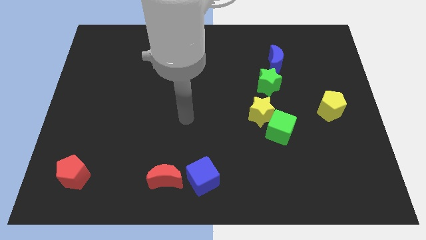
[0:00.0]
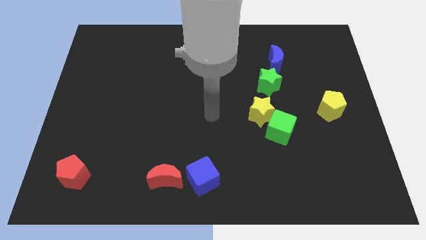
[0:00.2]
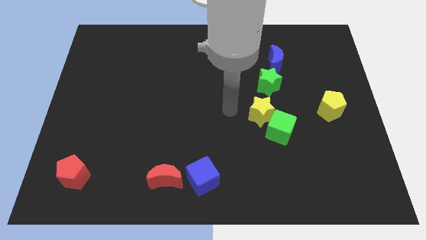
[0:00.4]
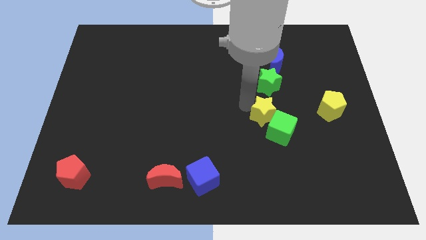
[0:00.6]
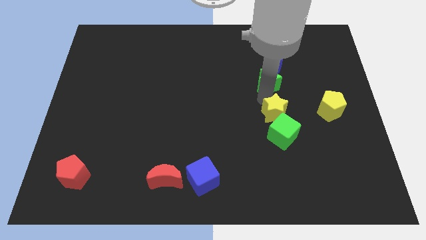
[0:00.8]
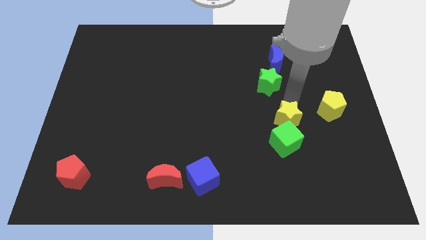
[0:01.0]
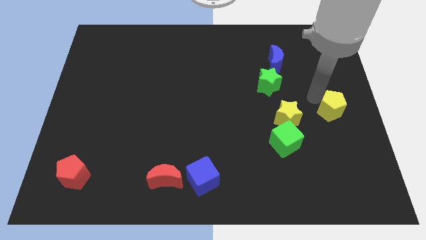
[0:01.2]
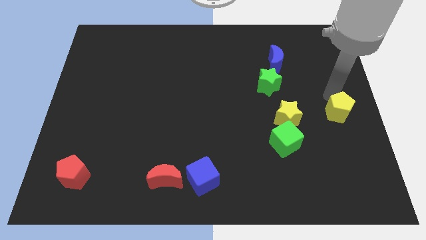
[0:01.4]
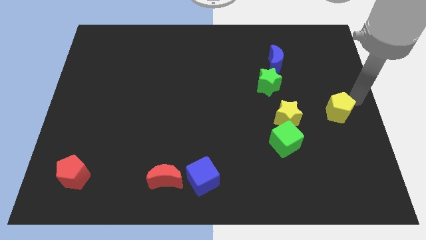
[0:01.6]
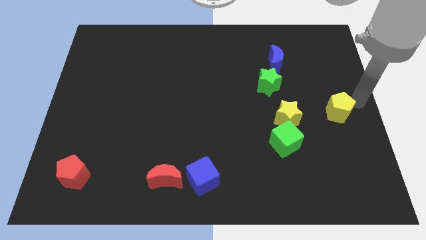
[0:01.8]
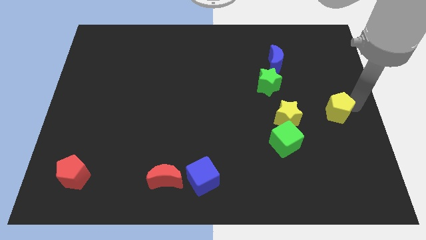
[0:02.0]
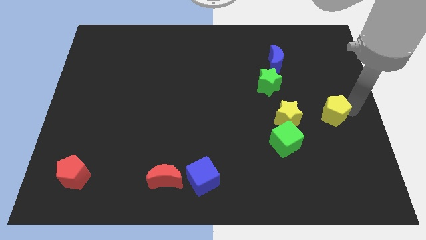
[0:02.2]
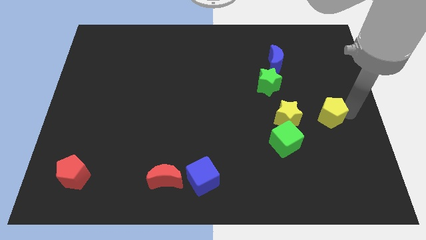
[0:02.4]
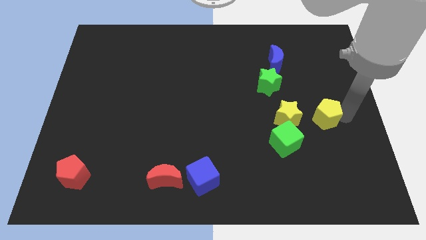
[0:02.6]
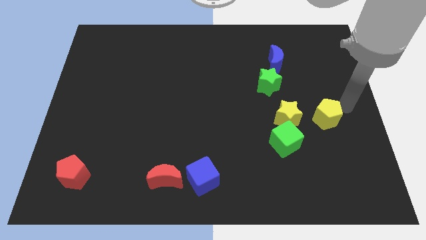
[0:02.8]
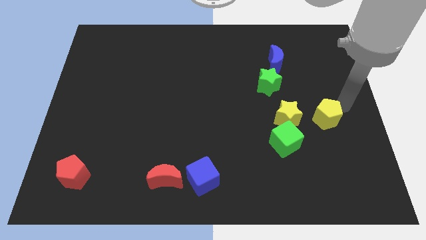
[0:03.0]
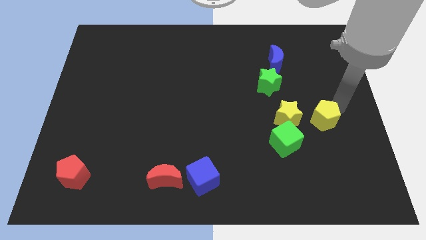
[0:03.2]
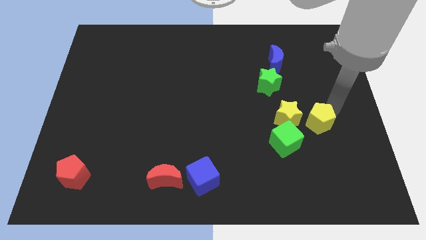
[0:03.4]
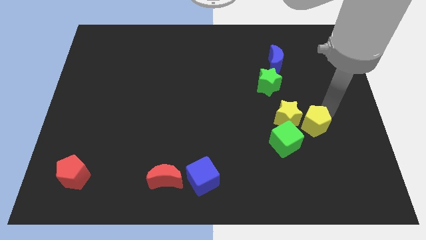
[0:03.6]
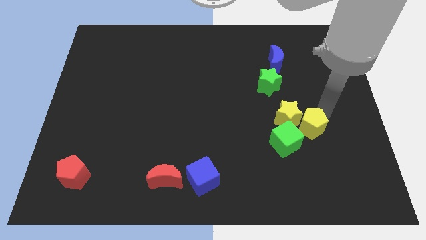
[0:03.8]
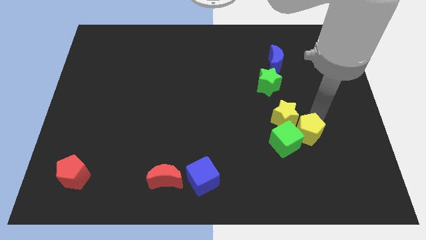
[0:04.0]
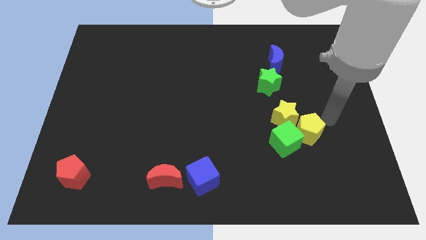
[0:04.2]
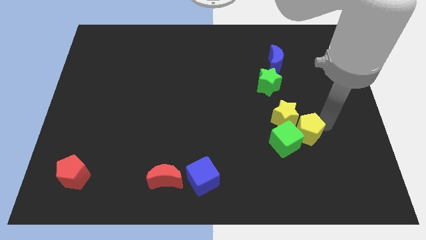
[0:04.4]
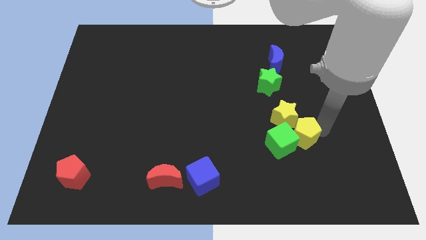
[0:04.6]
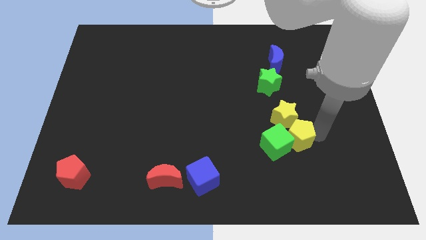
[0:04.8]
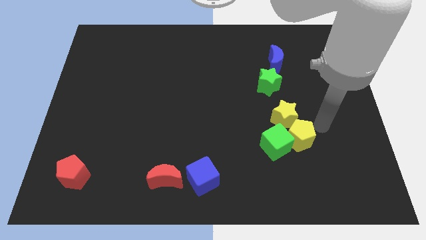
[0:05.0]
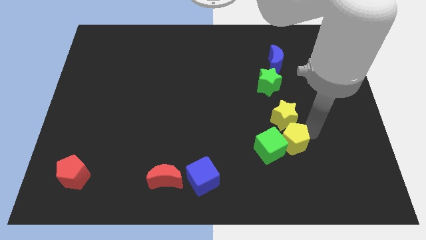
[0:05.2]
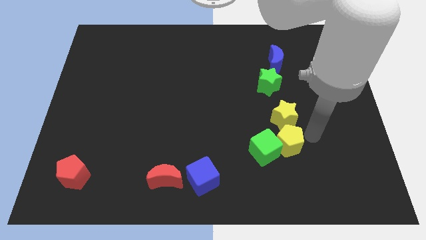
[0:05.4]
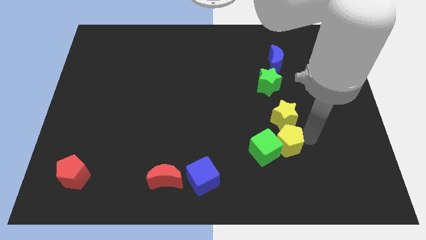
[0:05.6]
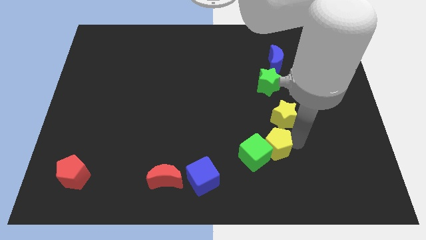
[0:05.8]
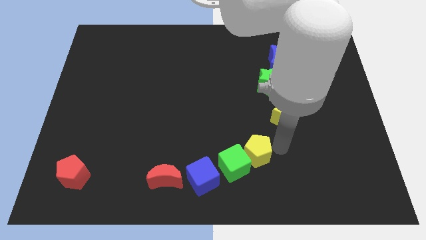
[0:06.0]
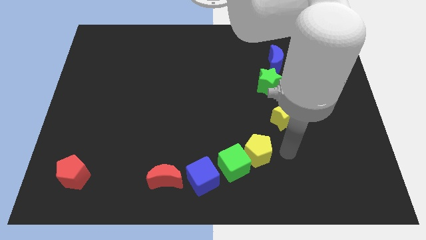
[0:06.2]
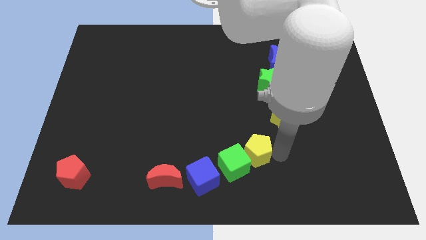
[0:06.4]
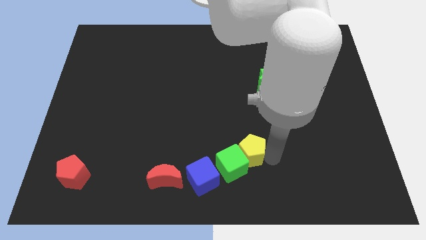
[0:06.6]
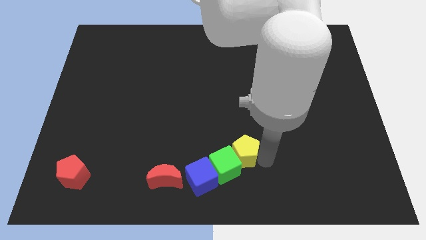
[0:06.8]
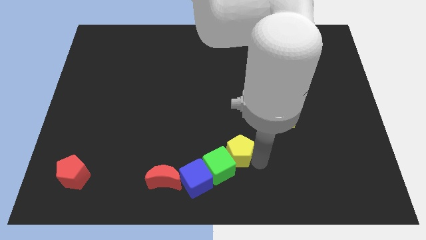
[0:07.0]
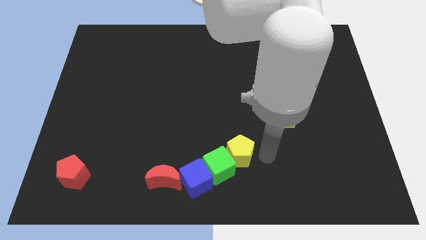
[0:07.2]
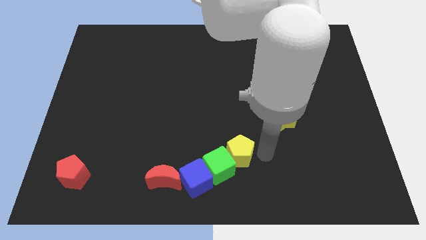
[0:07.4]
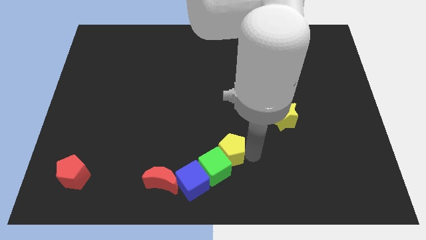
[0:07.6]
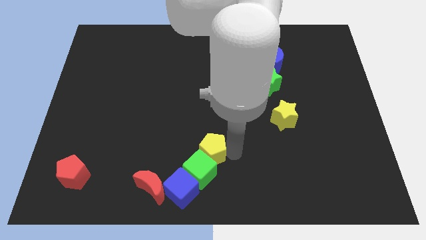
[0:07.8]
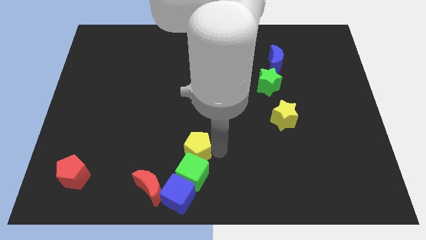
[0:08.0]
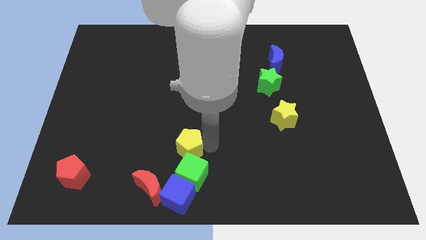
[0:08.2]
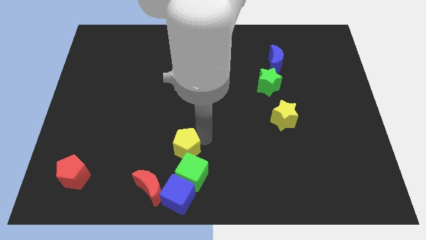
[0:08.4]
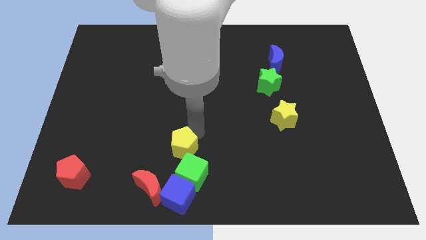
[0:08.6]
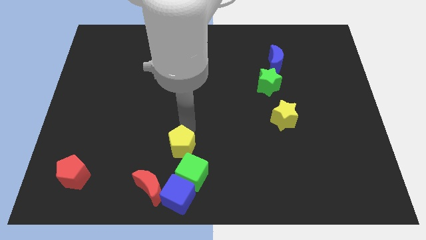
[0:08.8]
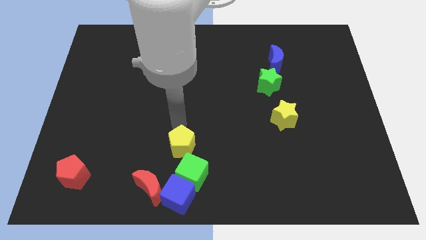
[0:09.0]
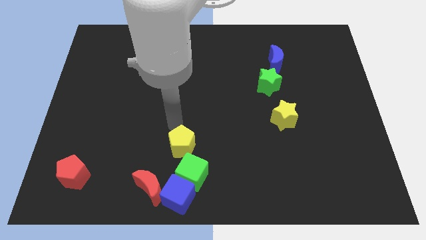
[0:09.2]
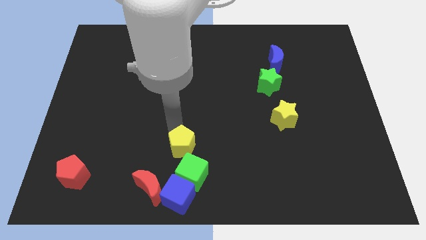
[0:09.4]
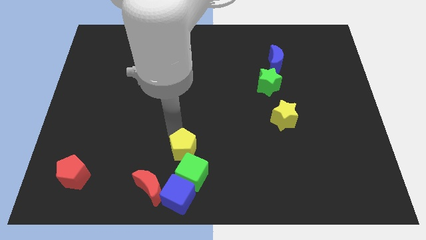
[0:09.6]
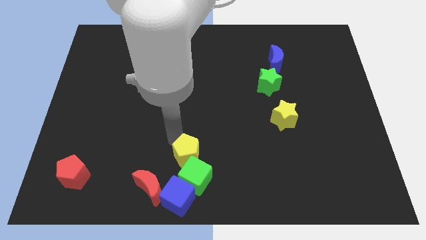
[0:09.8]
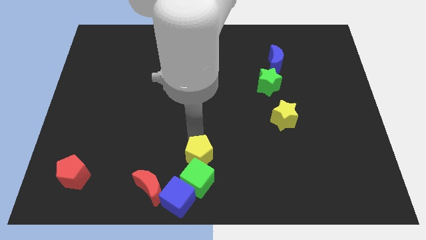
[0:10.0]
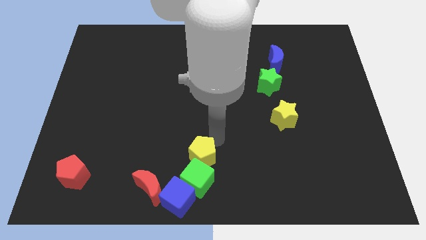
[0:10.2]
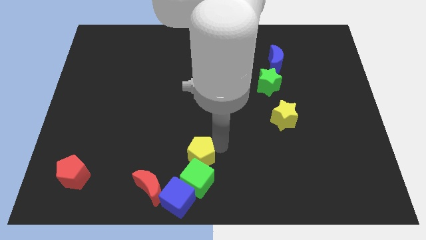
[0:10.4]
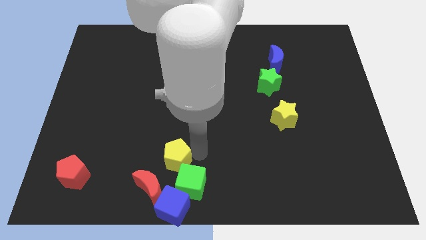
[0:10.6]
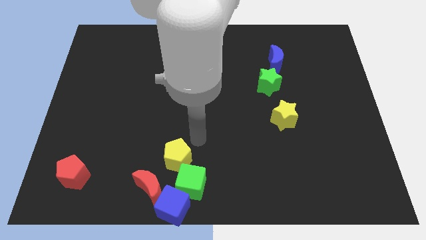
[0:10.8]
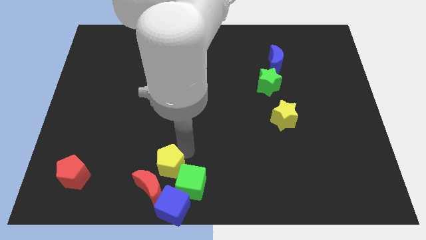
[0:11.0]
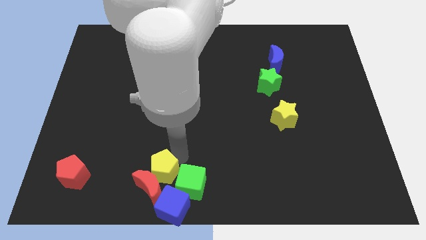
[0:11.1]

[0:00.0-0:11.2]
move the yellow pentagon towards the red moon
